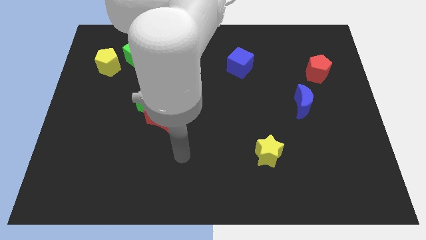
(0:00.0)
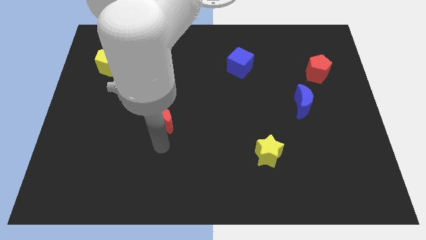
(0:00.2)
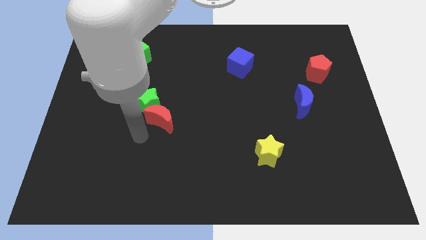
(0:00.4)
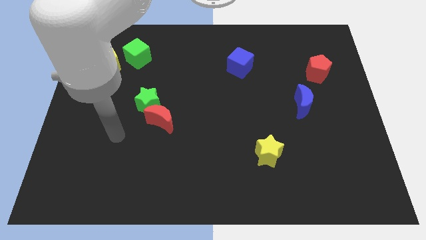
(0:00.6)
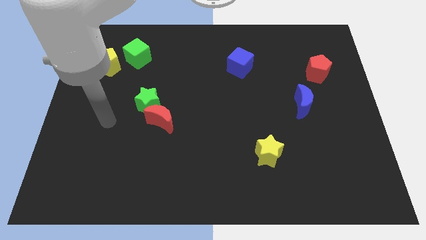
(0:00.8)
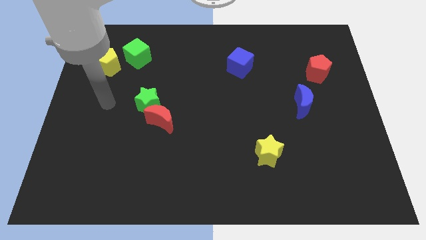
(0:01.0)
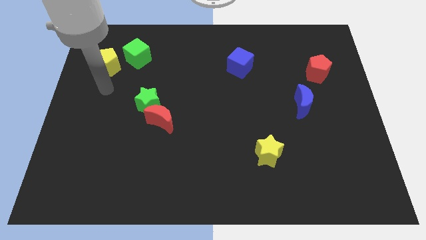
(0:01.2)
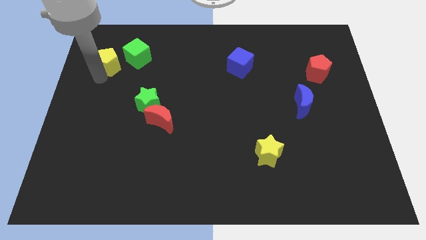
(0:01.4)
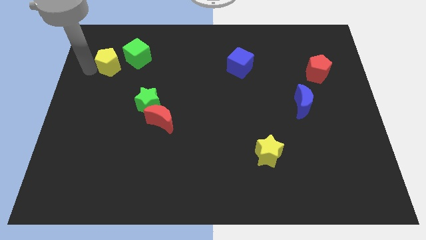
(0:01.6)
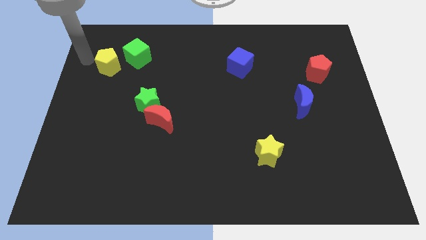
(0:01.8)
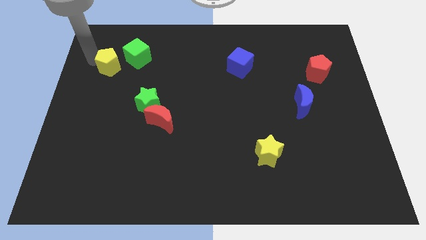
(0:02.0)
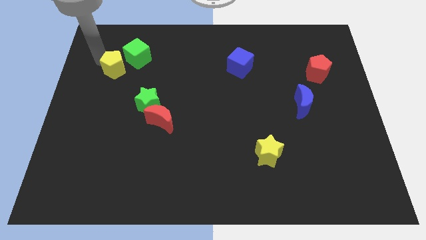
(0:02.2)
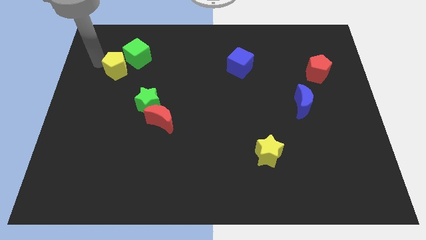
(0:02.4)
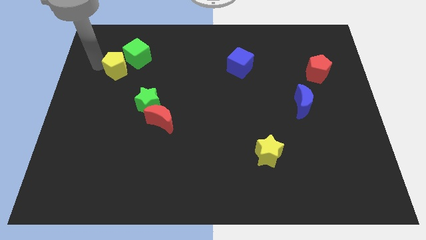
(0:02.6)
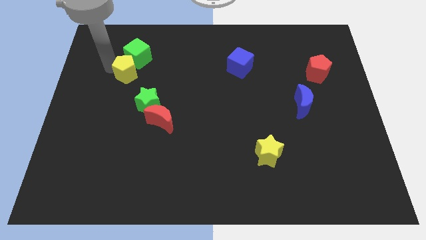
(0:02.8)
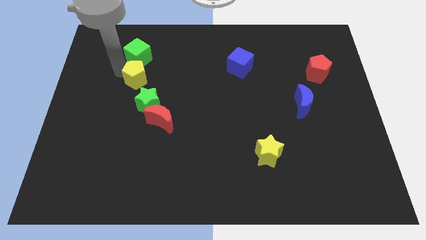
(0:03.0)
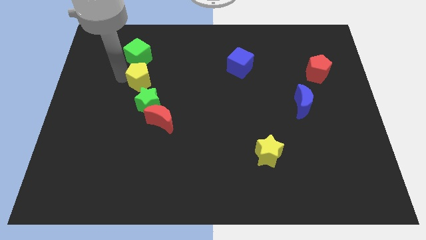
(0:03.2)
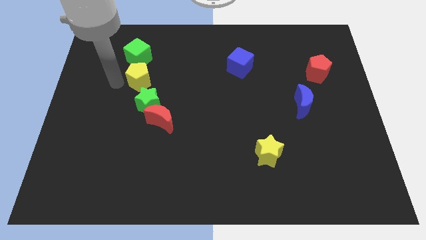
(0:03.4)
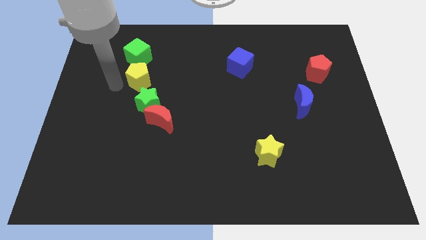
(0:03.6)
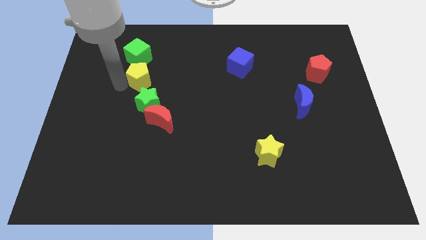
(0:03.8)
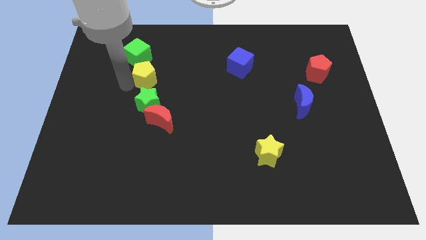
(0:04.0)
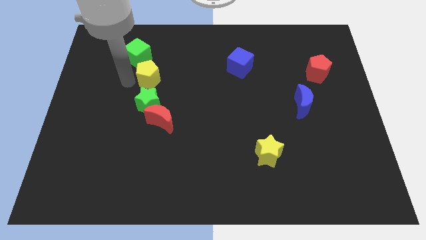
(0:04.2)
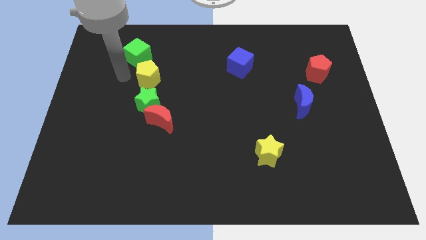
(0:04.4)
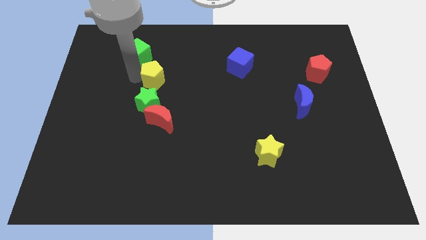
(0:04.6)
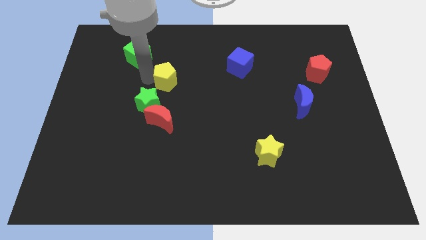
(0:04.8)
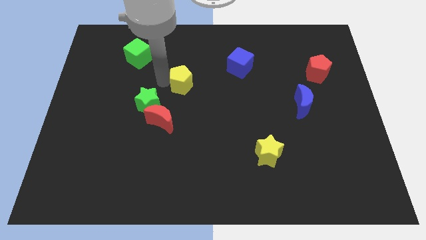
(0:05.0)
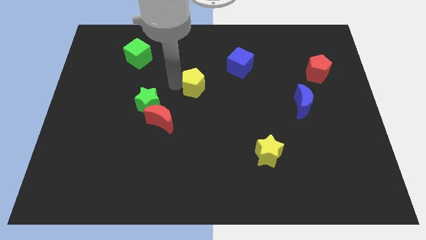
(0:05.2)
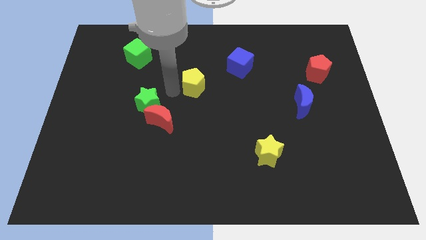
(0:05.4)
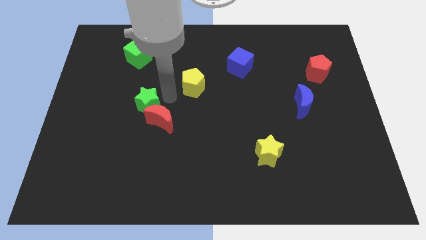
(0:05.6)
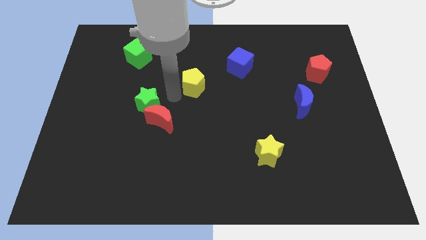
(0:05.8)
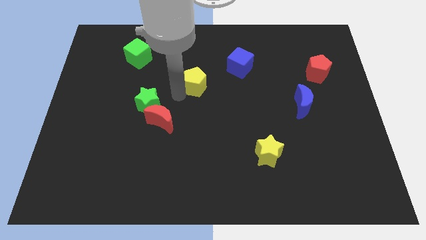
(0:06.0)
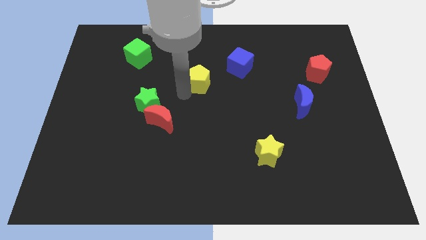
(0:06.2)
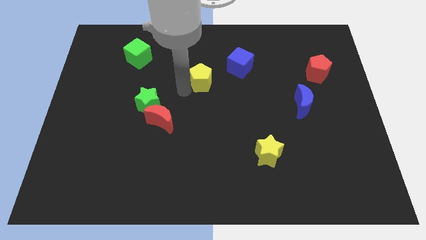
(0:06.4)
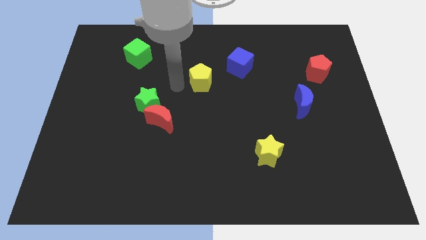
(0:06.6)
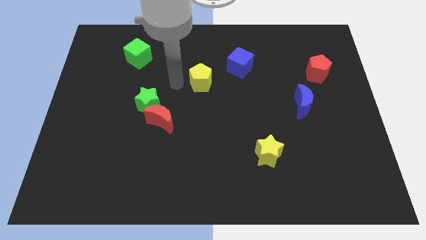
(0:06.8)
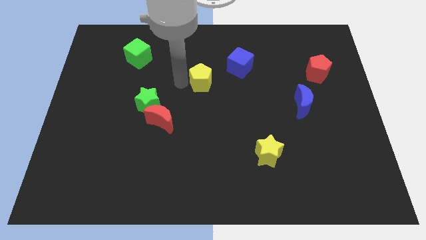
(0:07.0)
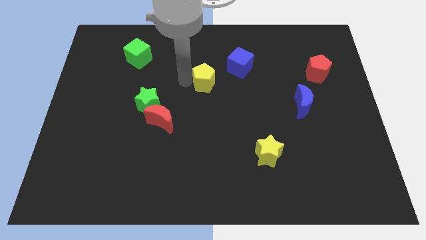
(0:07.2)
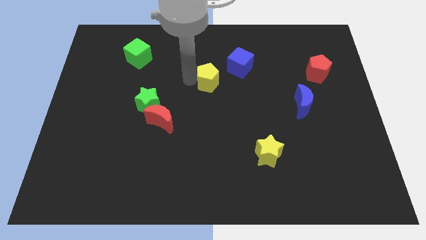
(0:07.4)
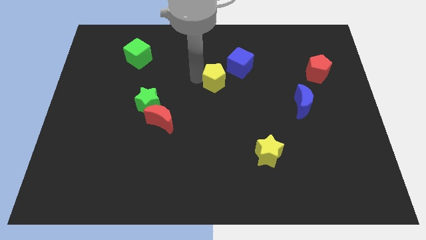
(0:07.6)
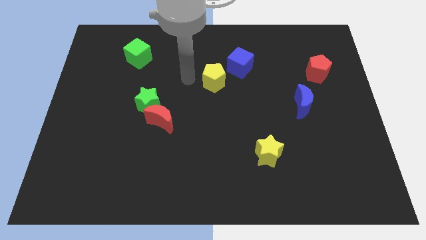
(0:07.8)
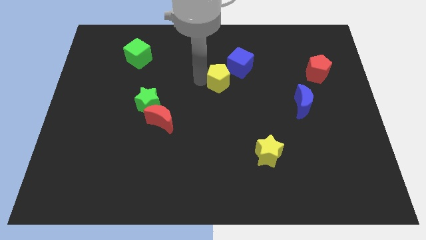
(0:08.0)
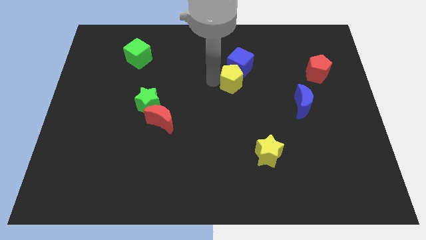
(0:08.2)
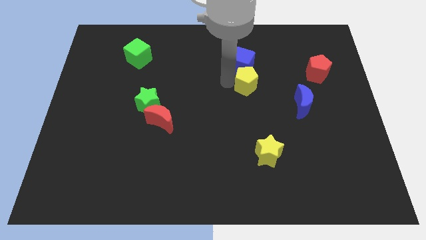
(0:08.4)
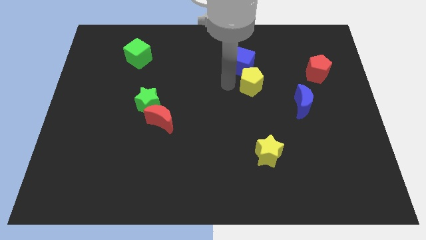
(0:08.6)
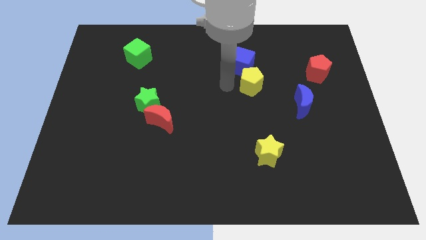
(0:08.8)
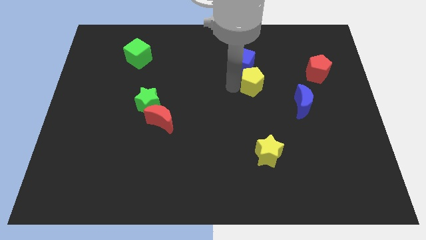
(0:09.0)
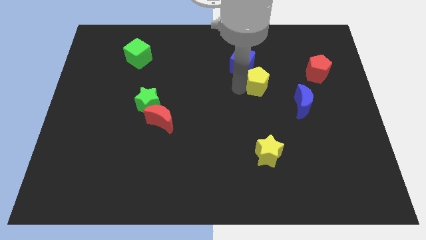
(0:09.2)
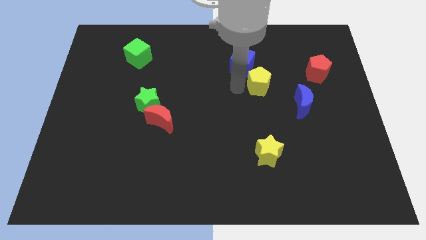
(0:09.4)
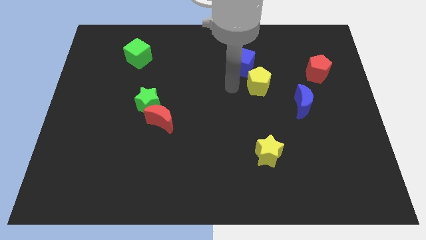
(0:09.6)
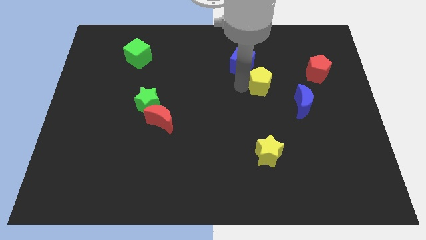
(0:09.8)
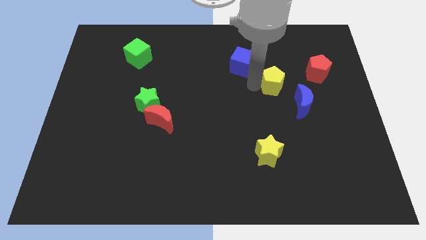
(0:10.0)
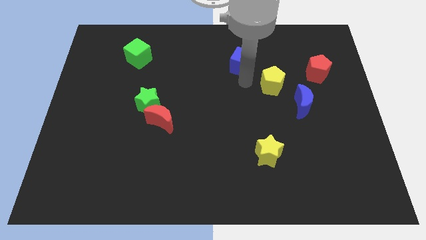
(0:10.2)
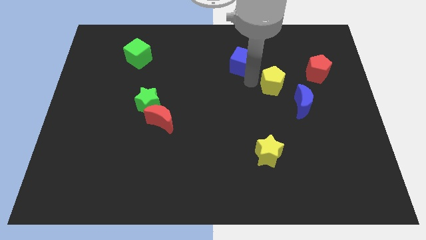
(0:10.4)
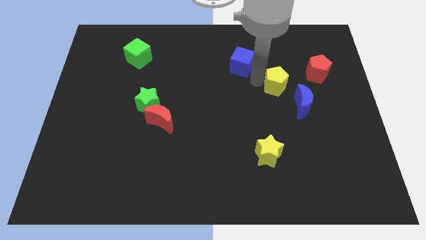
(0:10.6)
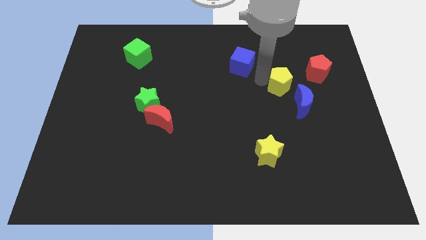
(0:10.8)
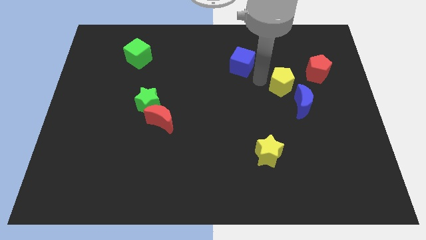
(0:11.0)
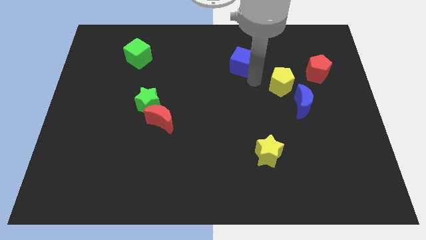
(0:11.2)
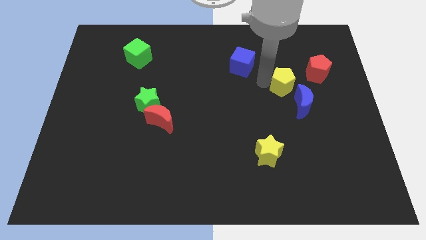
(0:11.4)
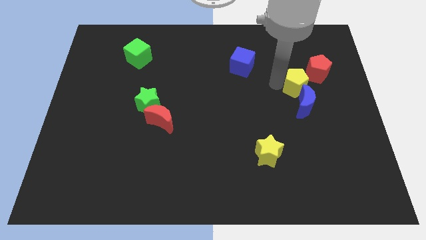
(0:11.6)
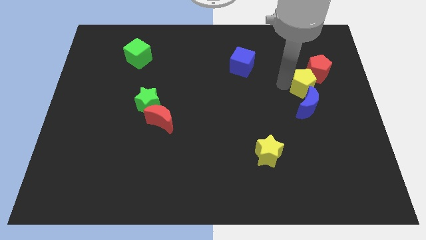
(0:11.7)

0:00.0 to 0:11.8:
move the yellow pentagon to the bottom side of the red pentagon

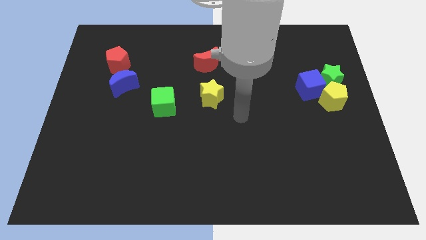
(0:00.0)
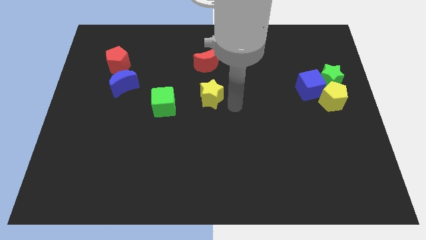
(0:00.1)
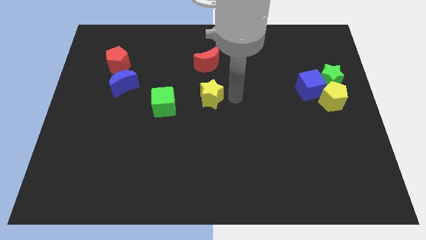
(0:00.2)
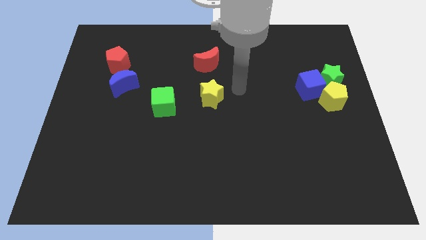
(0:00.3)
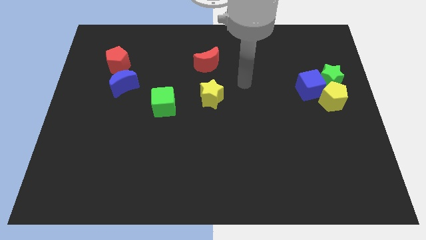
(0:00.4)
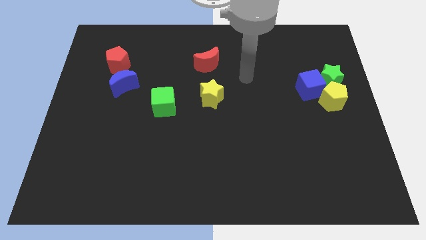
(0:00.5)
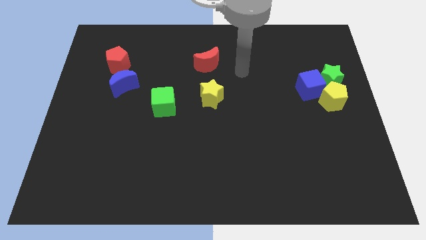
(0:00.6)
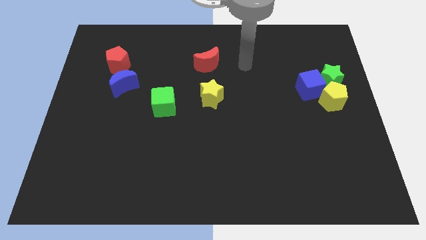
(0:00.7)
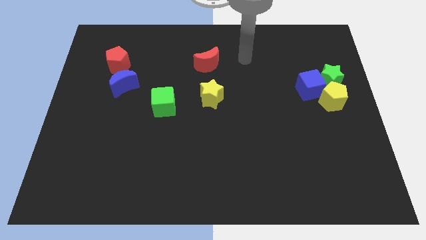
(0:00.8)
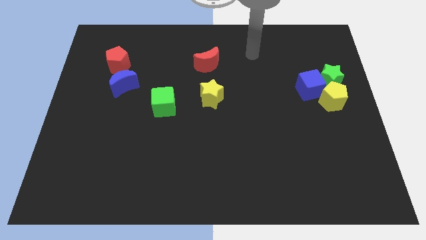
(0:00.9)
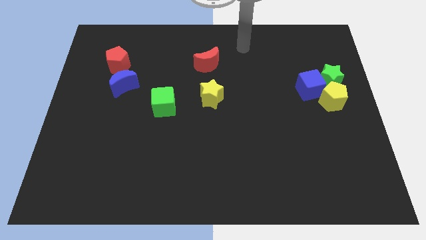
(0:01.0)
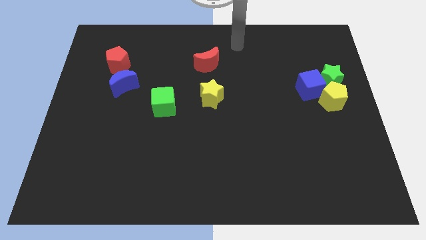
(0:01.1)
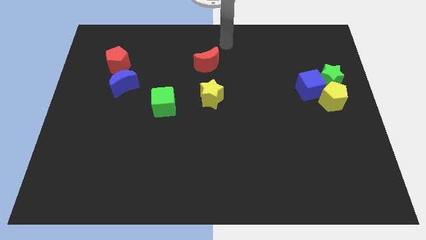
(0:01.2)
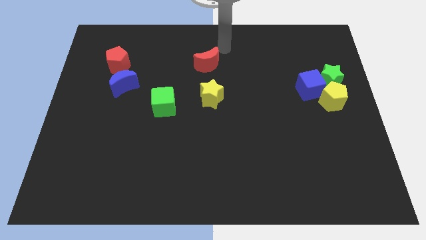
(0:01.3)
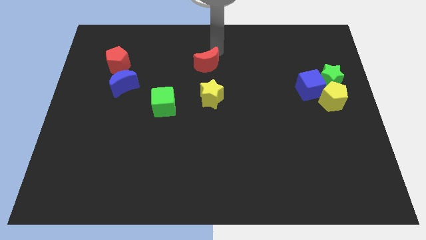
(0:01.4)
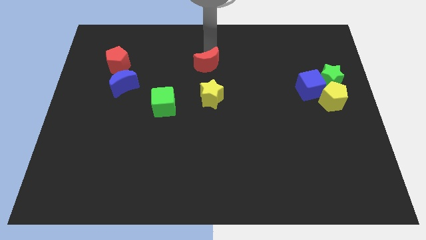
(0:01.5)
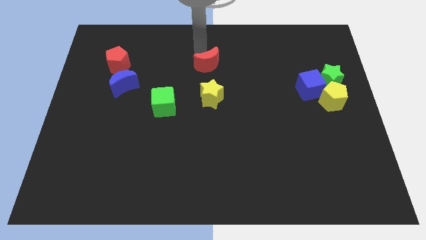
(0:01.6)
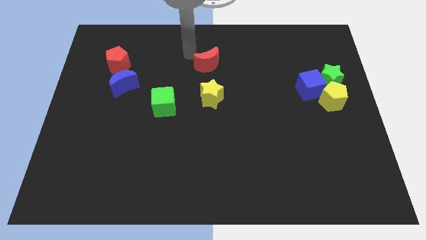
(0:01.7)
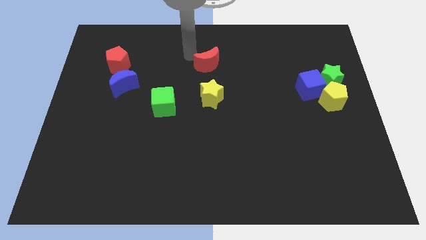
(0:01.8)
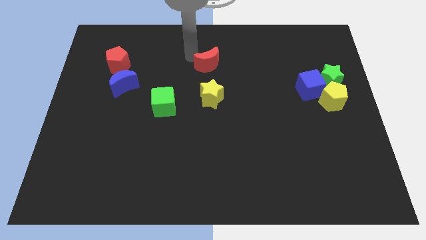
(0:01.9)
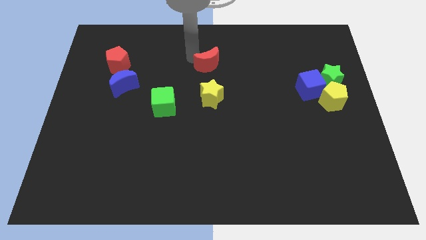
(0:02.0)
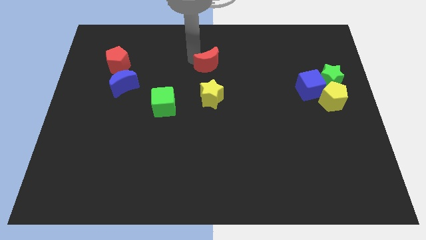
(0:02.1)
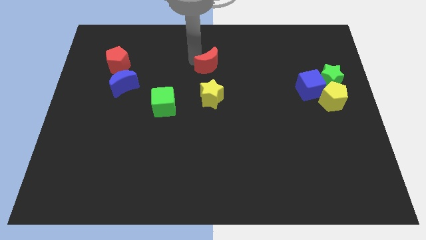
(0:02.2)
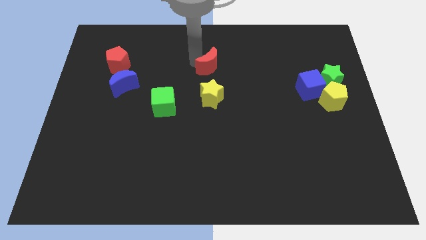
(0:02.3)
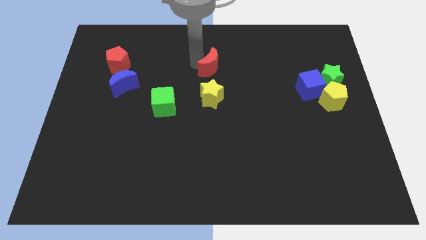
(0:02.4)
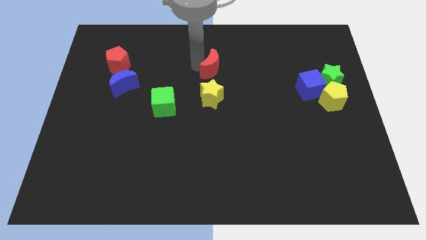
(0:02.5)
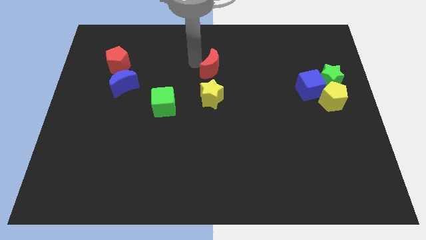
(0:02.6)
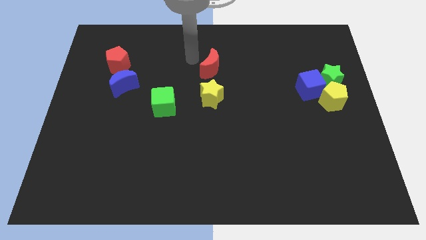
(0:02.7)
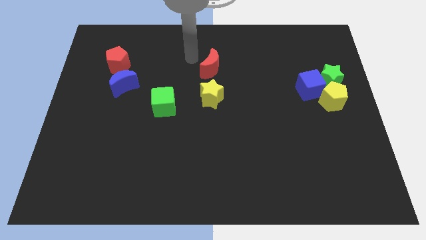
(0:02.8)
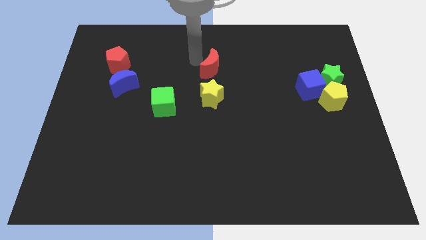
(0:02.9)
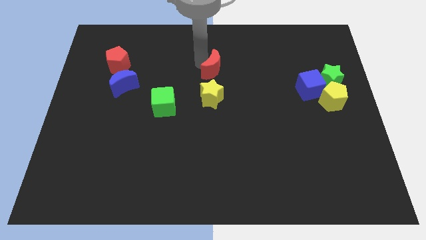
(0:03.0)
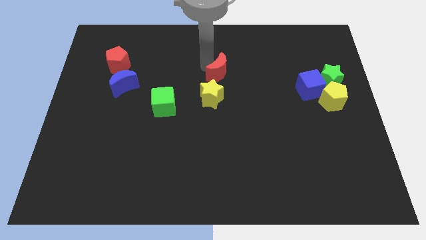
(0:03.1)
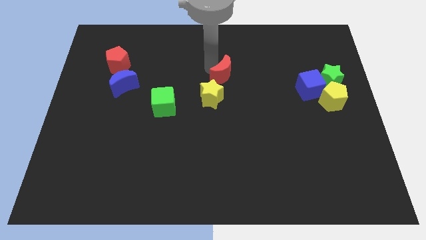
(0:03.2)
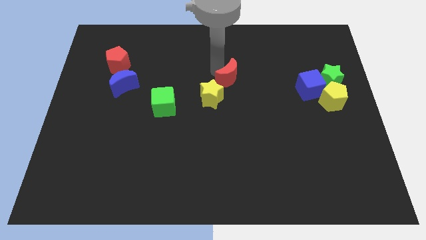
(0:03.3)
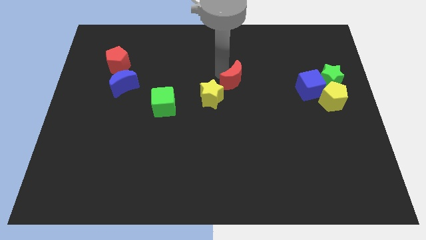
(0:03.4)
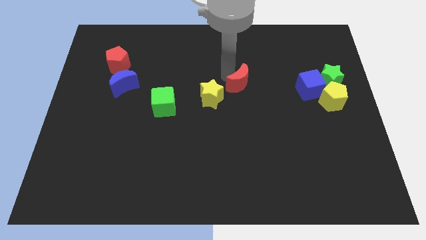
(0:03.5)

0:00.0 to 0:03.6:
slide the red moon just right of the yellow star
